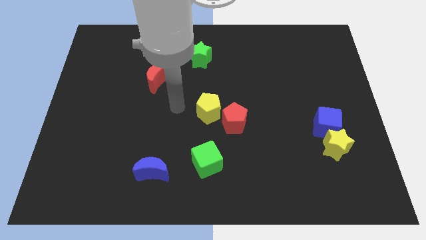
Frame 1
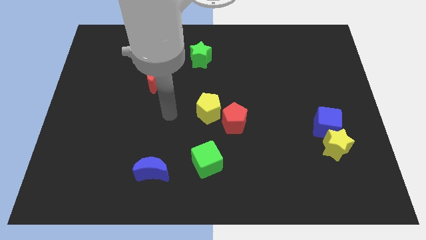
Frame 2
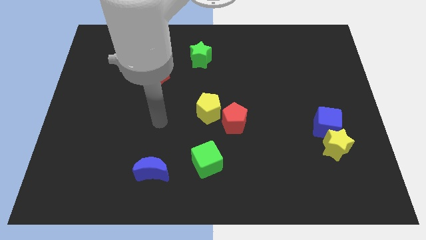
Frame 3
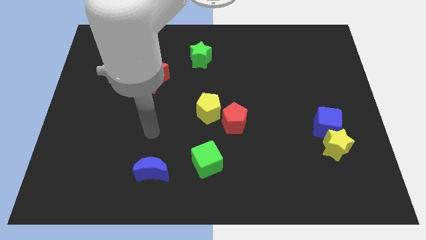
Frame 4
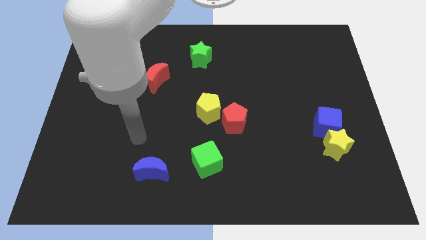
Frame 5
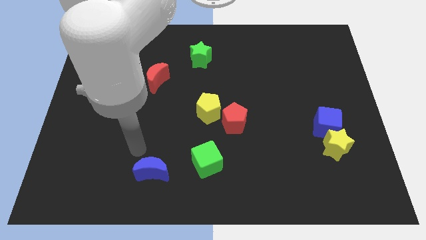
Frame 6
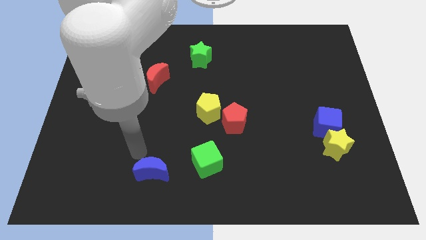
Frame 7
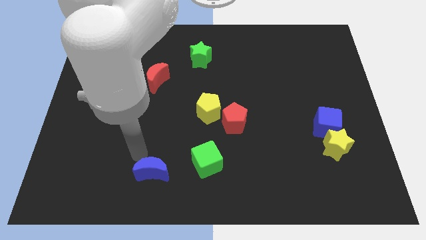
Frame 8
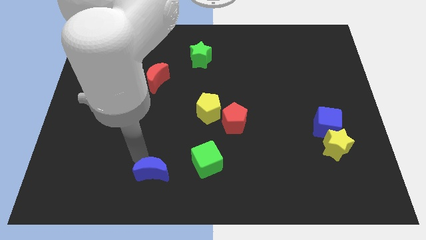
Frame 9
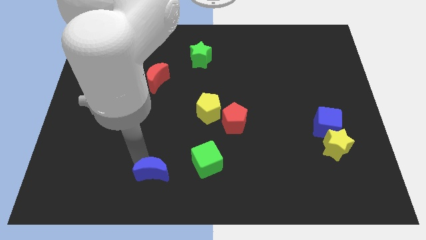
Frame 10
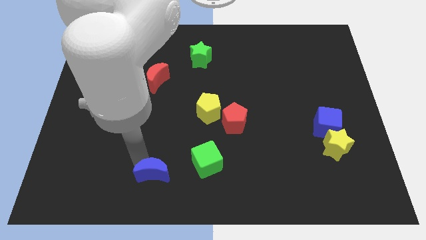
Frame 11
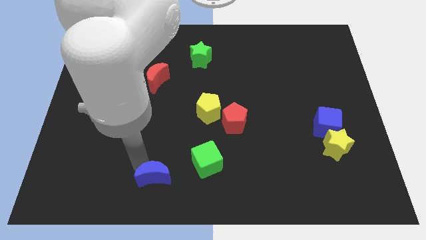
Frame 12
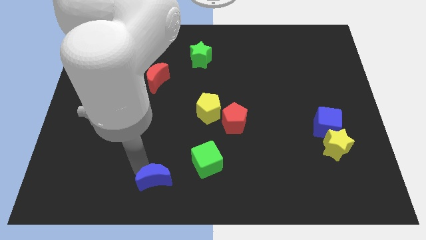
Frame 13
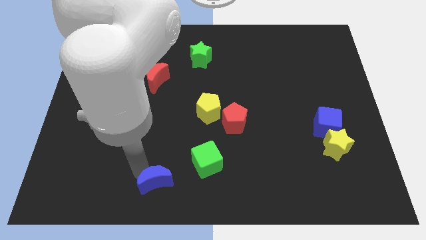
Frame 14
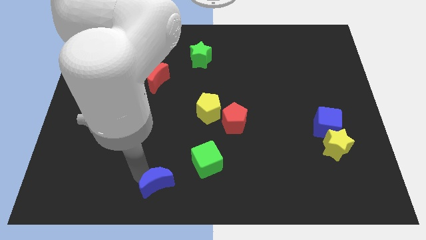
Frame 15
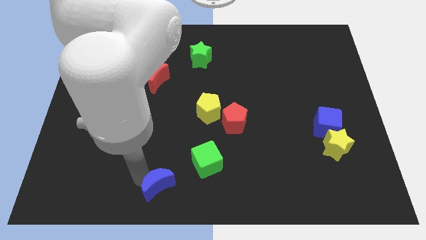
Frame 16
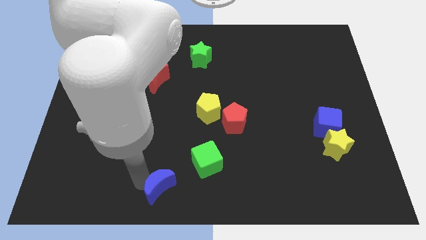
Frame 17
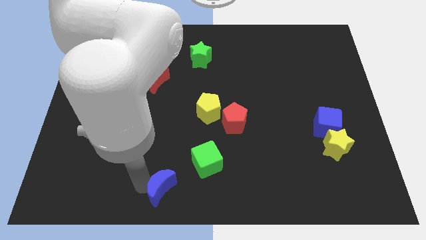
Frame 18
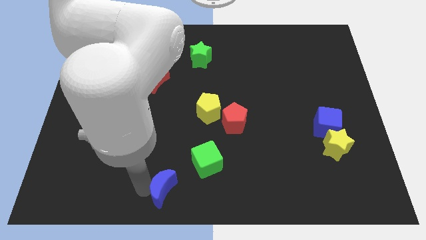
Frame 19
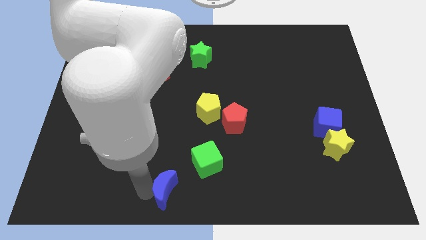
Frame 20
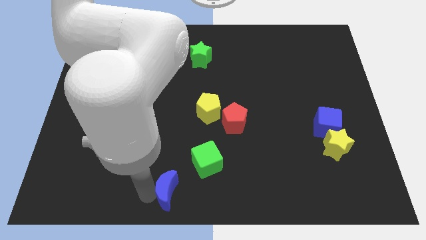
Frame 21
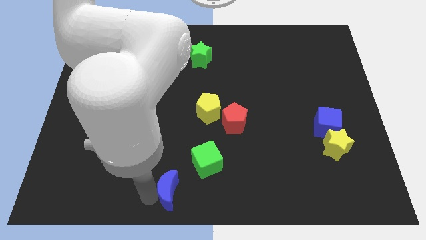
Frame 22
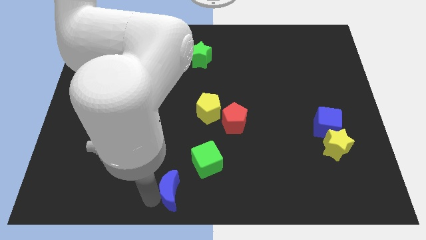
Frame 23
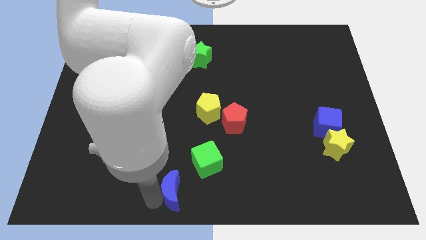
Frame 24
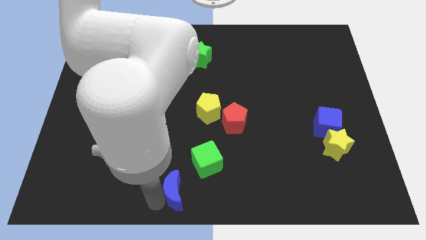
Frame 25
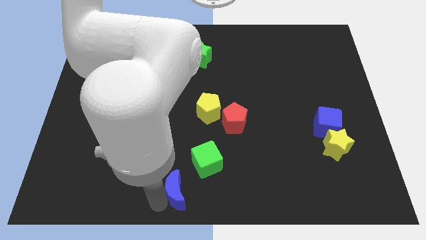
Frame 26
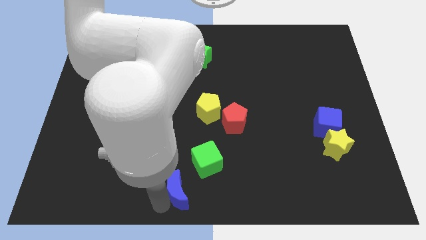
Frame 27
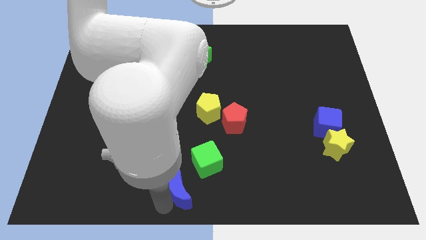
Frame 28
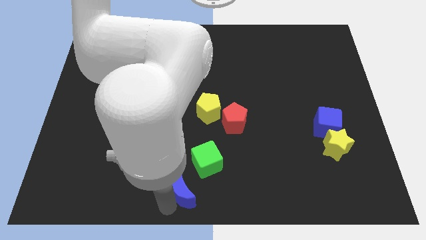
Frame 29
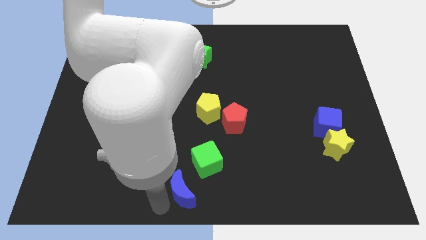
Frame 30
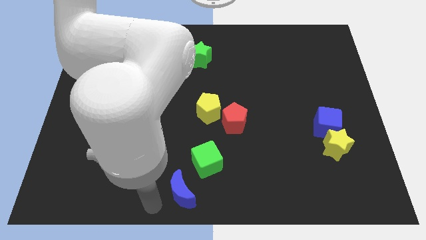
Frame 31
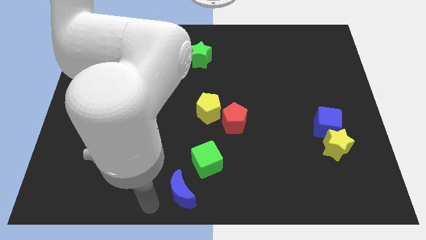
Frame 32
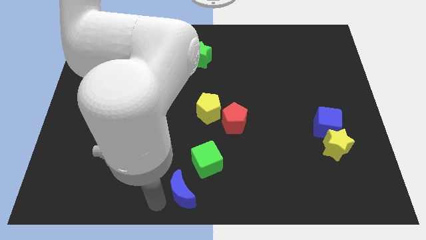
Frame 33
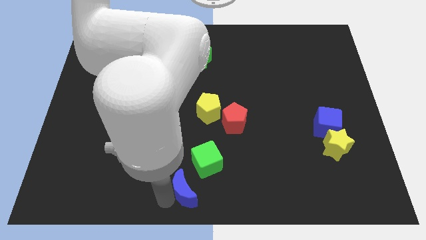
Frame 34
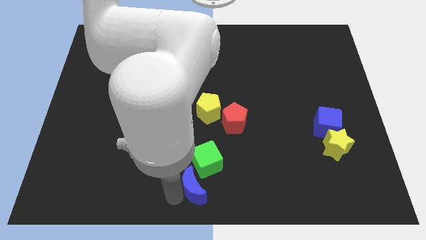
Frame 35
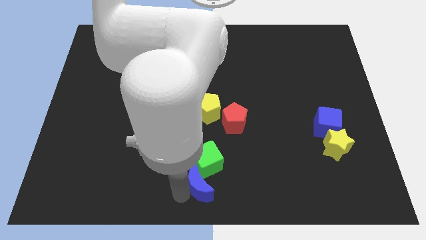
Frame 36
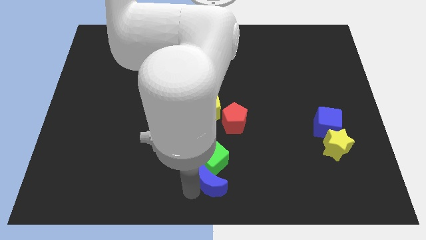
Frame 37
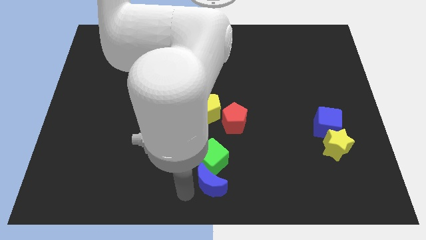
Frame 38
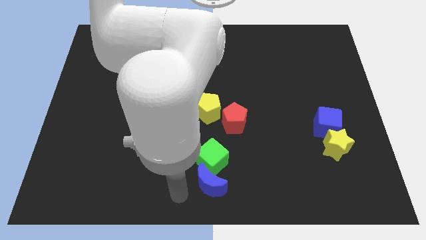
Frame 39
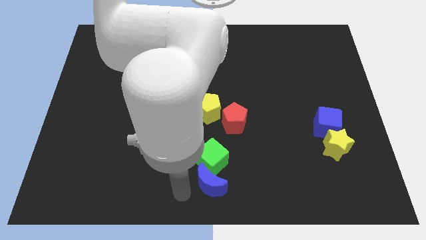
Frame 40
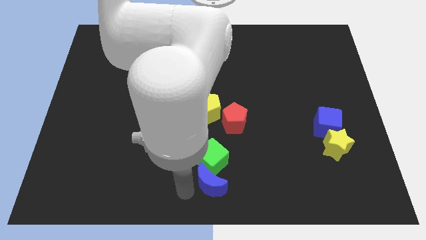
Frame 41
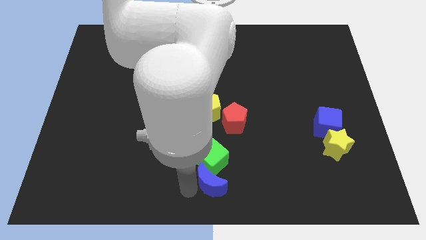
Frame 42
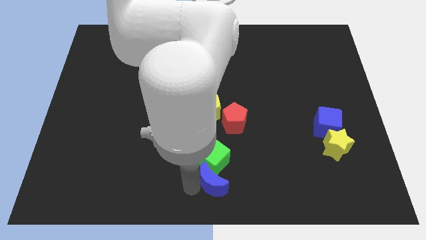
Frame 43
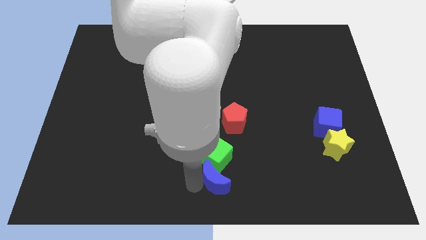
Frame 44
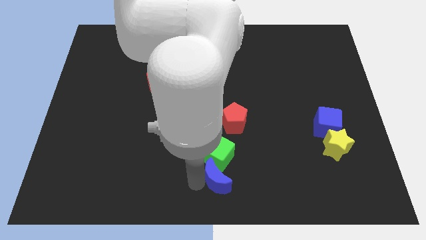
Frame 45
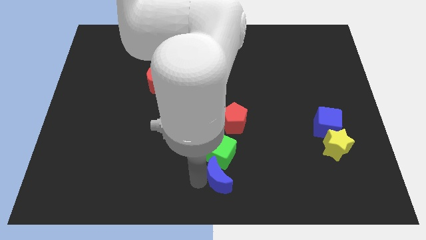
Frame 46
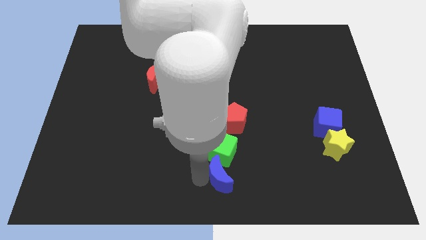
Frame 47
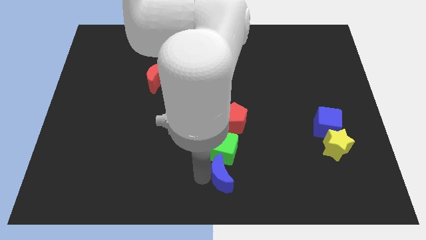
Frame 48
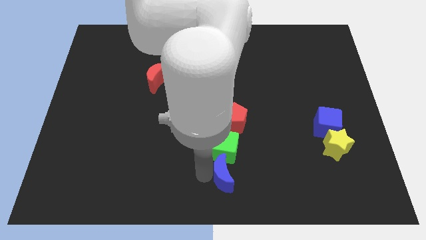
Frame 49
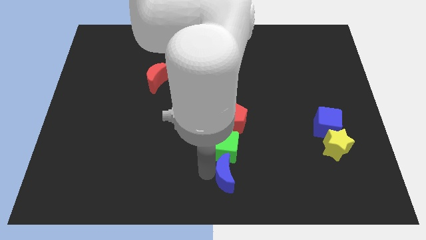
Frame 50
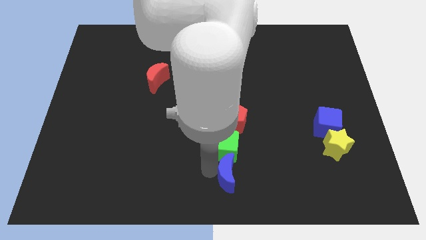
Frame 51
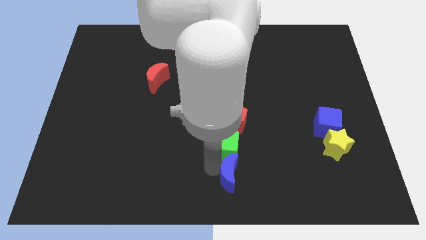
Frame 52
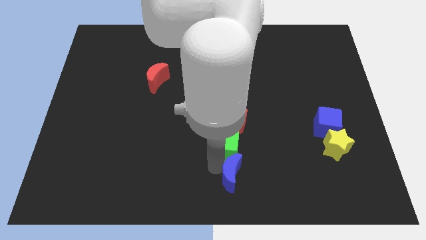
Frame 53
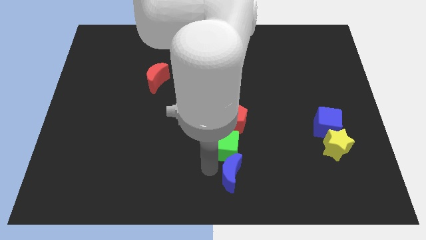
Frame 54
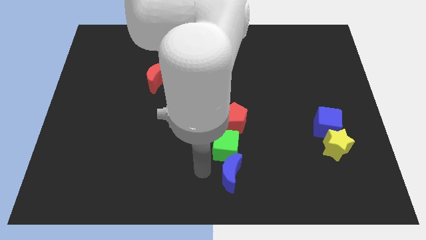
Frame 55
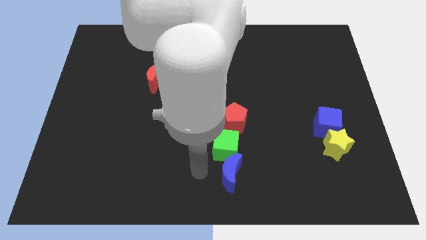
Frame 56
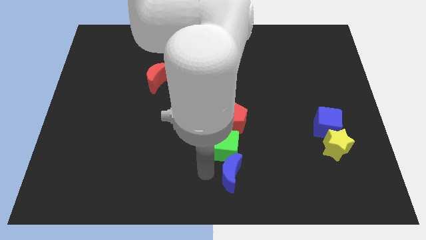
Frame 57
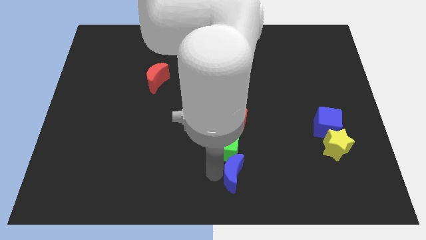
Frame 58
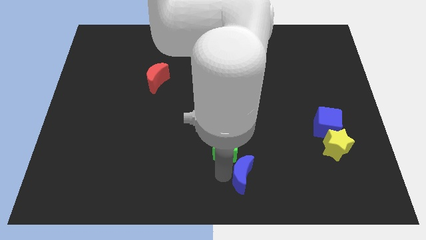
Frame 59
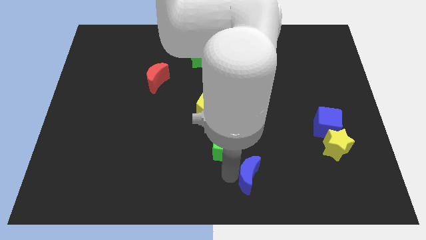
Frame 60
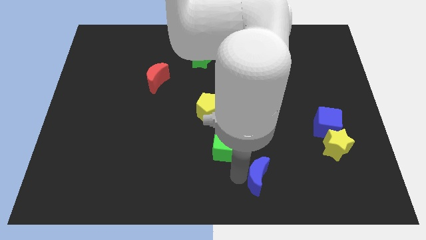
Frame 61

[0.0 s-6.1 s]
slide the blue moon to the right

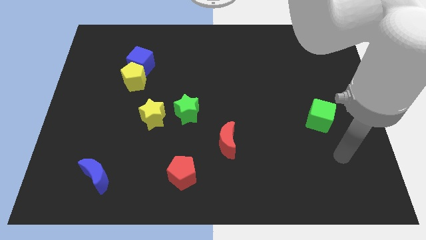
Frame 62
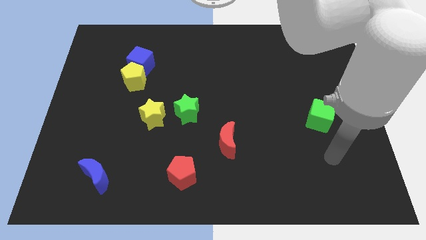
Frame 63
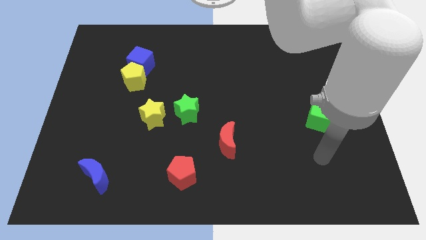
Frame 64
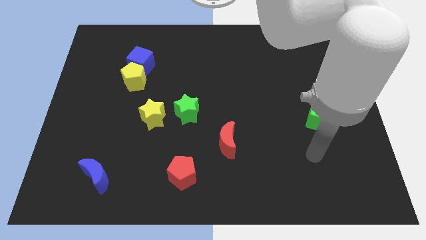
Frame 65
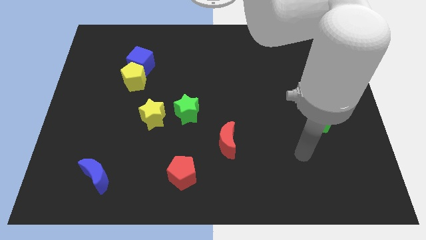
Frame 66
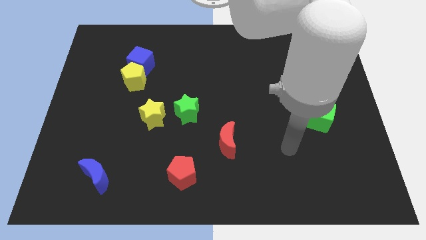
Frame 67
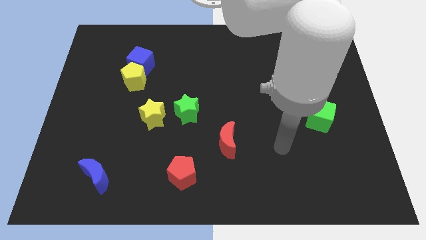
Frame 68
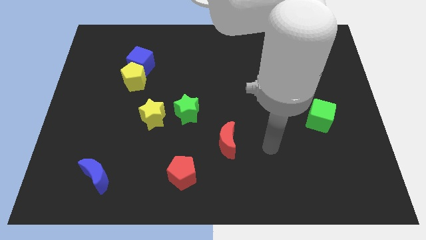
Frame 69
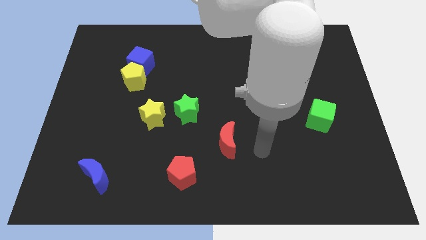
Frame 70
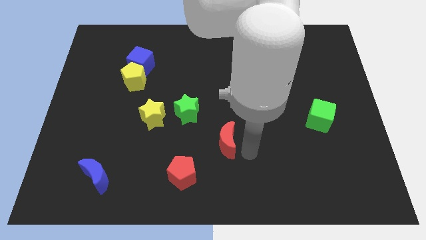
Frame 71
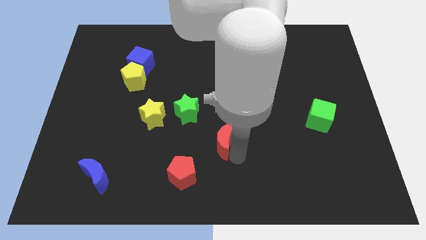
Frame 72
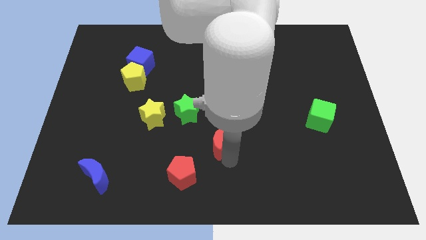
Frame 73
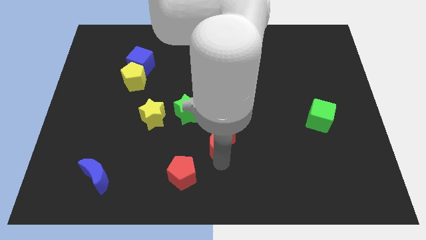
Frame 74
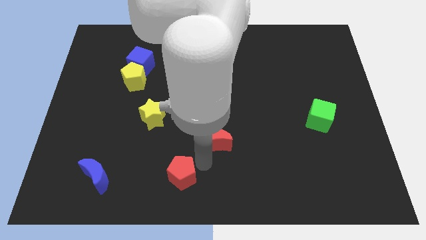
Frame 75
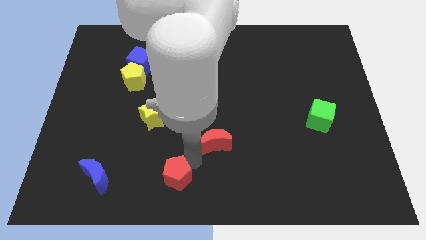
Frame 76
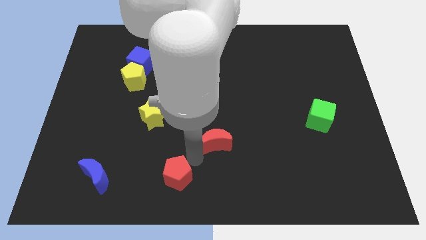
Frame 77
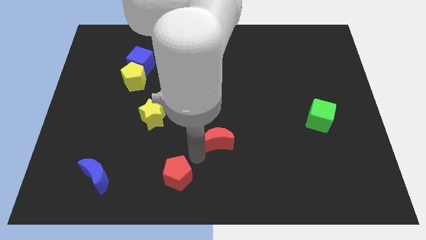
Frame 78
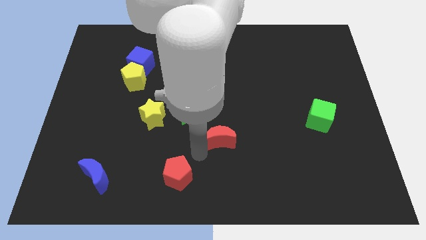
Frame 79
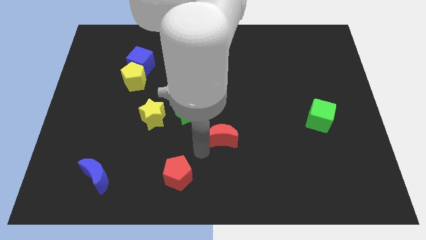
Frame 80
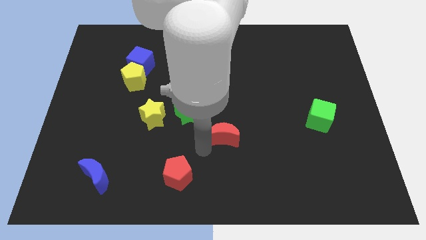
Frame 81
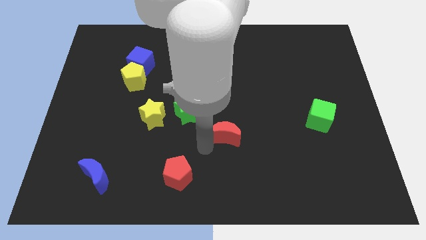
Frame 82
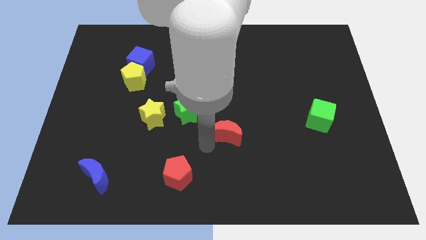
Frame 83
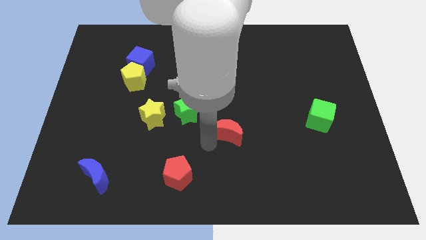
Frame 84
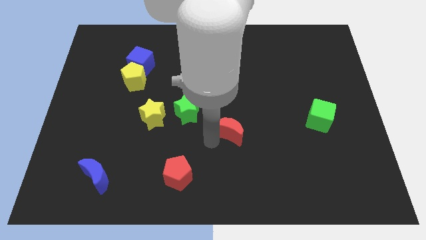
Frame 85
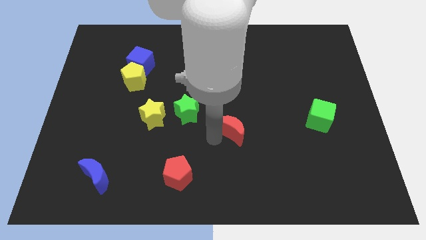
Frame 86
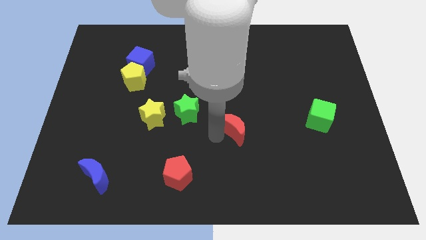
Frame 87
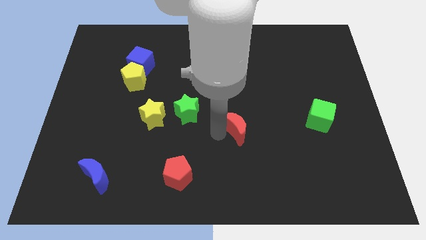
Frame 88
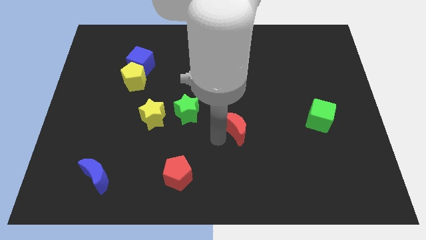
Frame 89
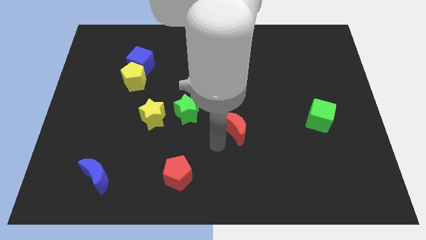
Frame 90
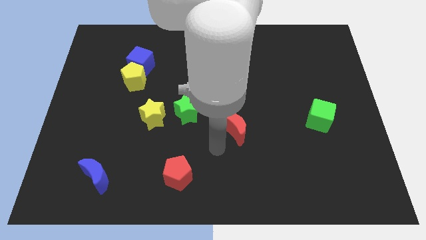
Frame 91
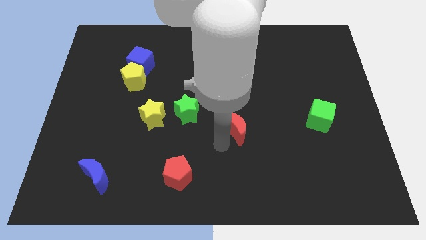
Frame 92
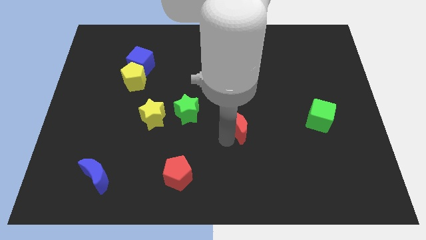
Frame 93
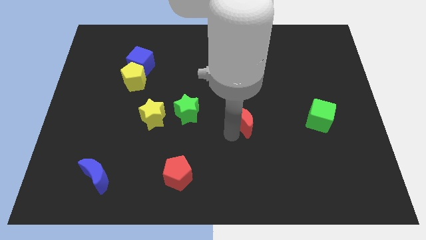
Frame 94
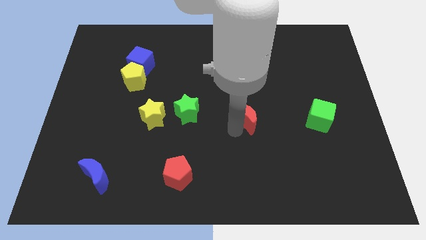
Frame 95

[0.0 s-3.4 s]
slightly push the red moon diagonally upwards and right
